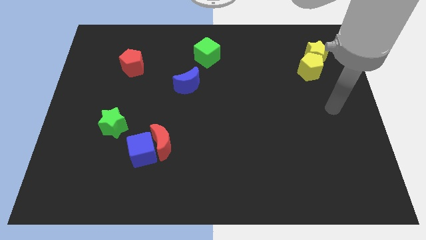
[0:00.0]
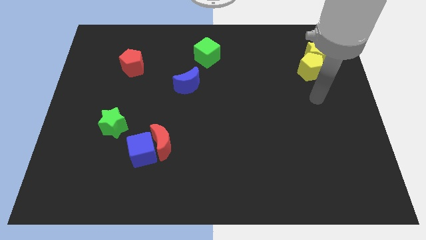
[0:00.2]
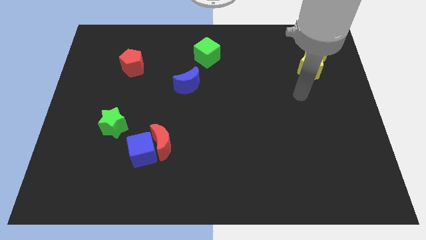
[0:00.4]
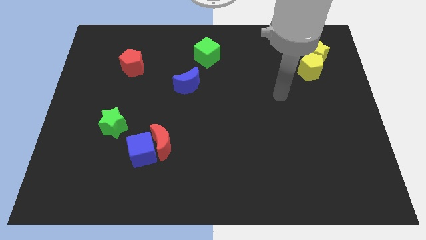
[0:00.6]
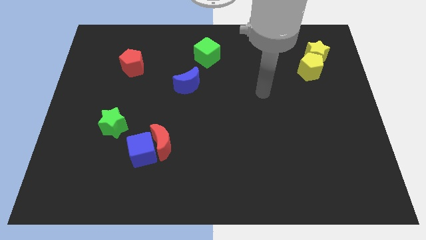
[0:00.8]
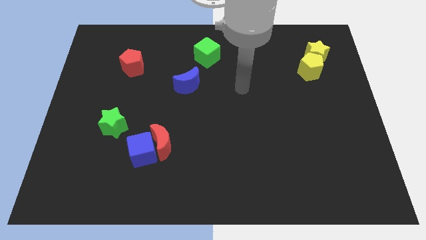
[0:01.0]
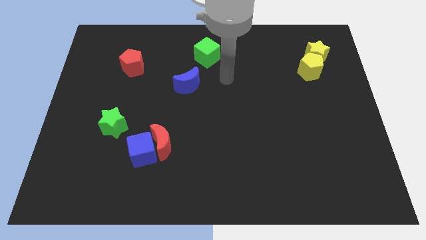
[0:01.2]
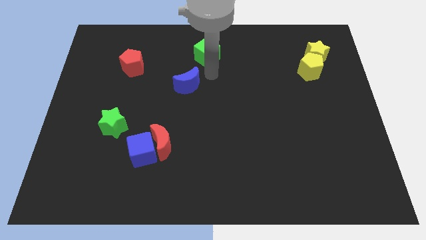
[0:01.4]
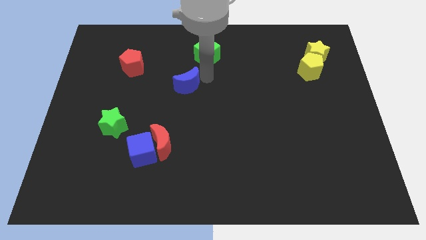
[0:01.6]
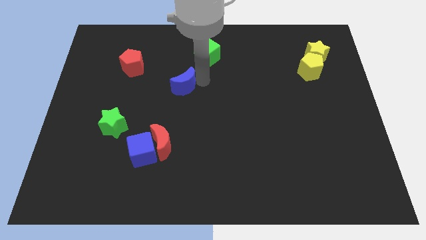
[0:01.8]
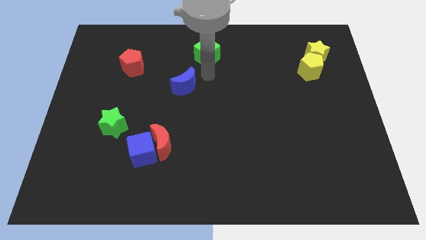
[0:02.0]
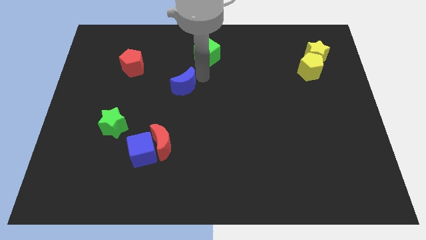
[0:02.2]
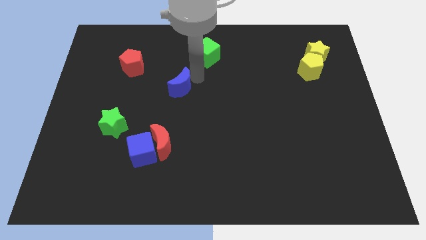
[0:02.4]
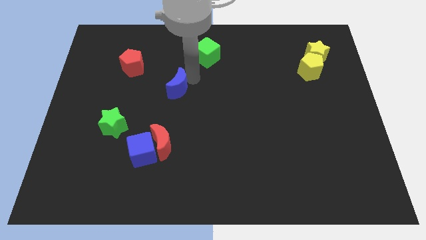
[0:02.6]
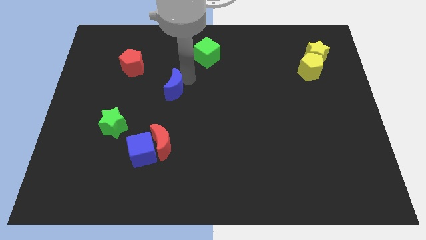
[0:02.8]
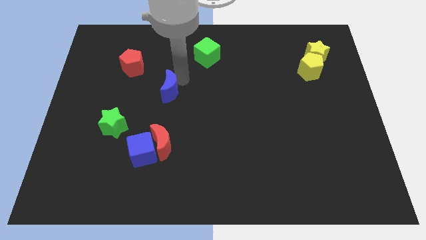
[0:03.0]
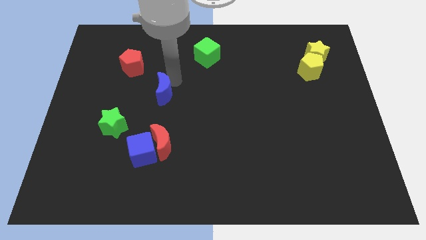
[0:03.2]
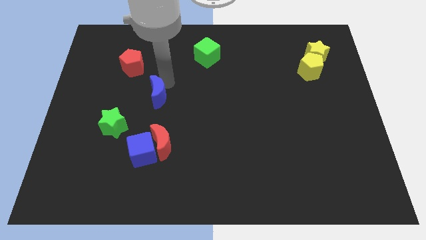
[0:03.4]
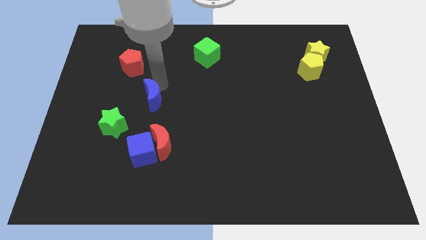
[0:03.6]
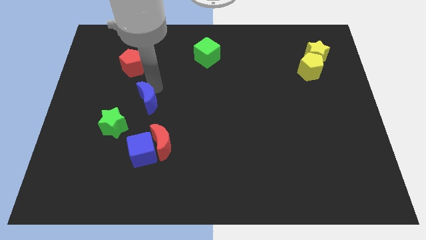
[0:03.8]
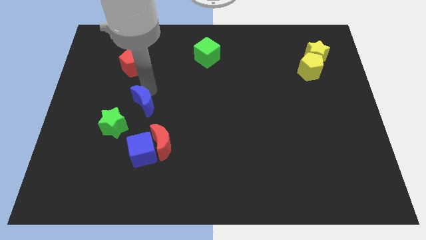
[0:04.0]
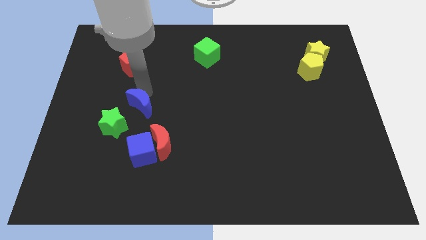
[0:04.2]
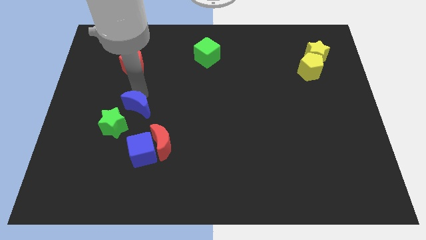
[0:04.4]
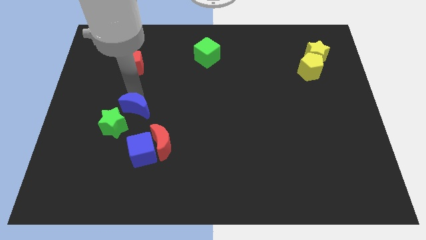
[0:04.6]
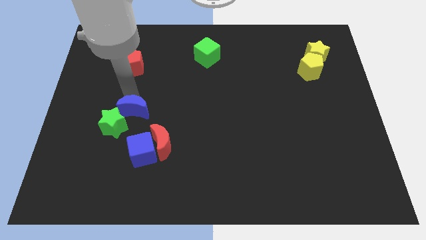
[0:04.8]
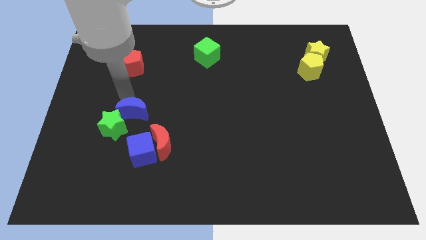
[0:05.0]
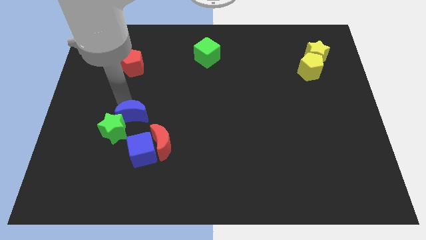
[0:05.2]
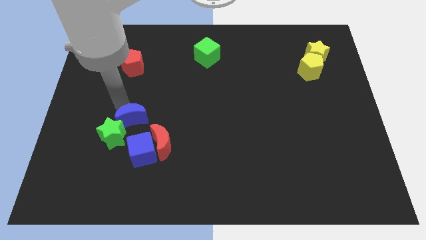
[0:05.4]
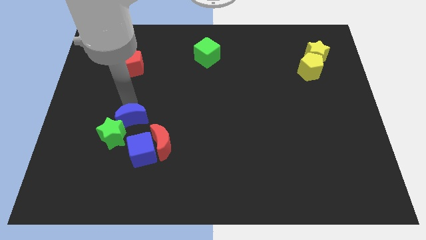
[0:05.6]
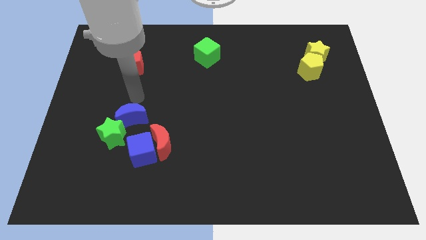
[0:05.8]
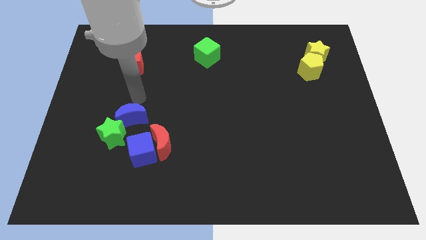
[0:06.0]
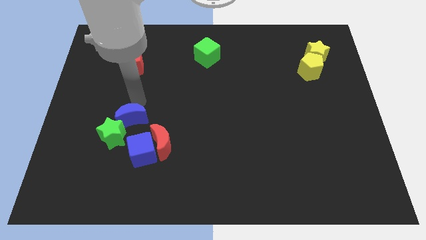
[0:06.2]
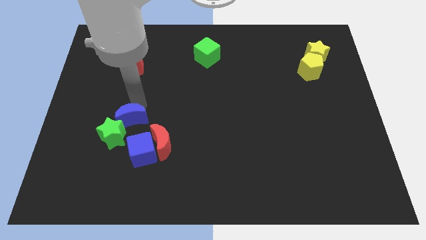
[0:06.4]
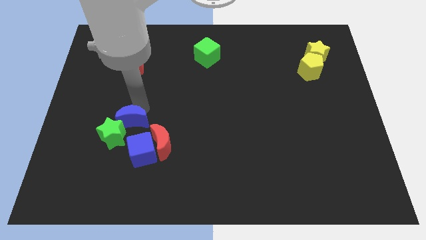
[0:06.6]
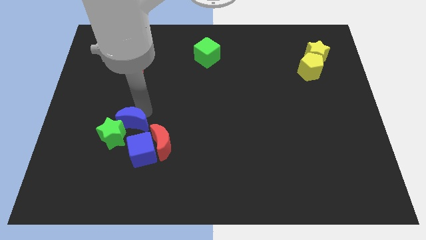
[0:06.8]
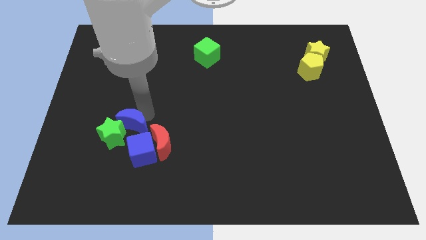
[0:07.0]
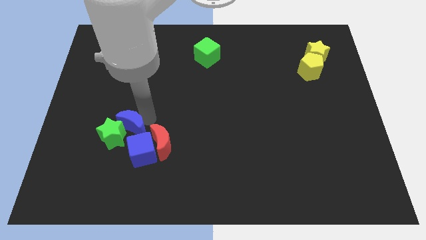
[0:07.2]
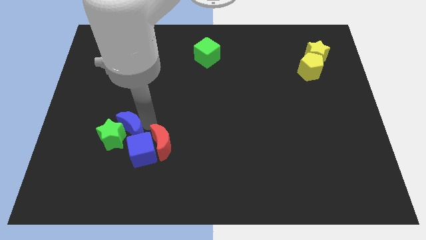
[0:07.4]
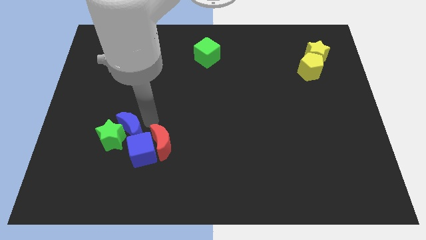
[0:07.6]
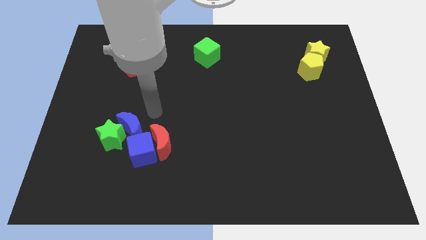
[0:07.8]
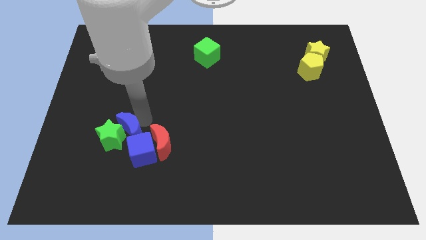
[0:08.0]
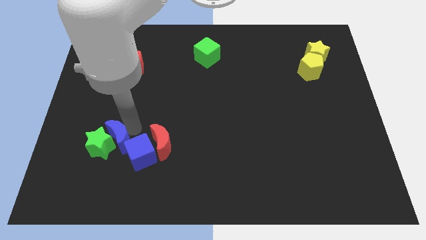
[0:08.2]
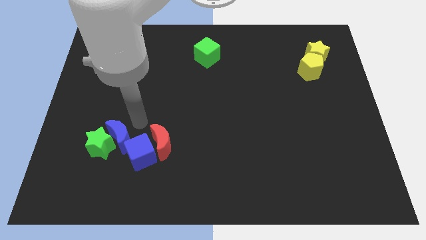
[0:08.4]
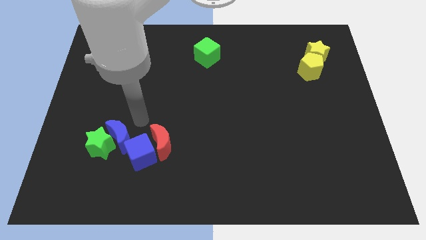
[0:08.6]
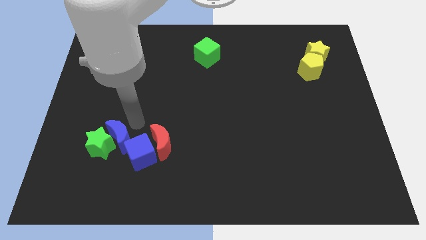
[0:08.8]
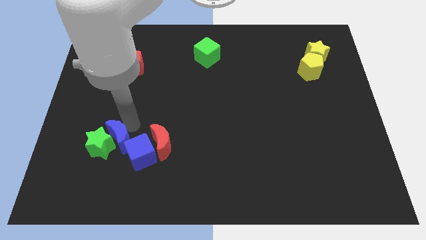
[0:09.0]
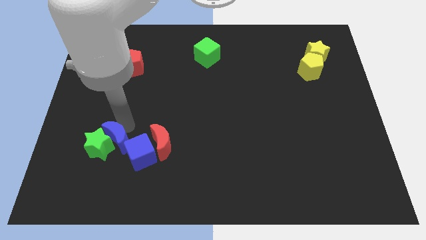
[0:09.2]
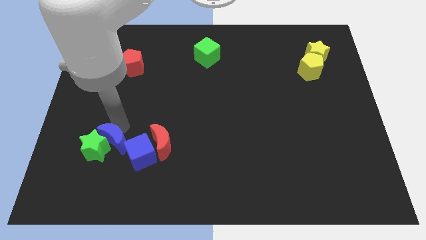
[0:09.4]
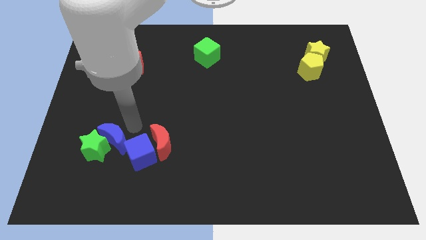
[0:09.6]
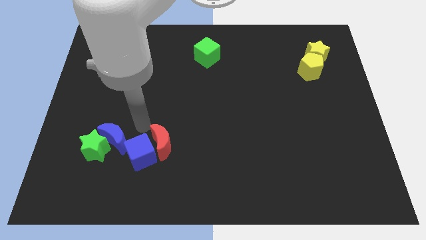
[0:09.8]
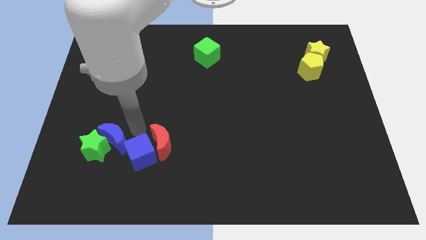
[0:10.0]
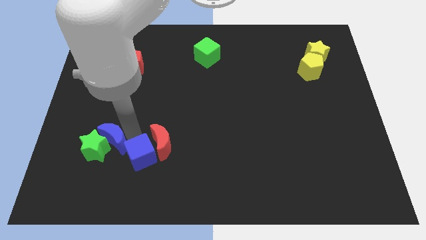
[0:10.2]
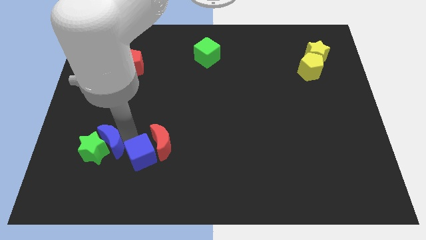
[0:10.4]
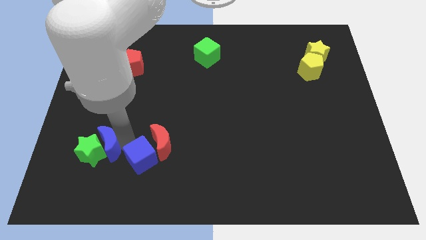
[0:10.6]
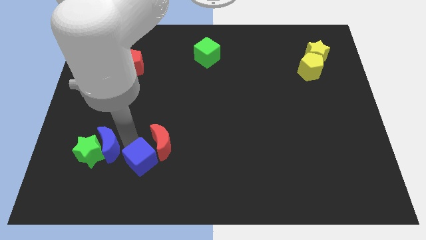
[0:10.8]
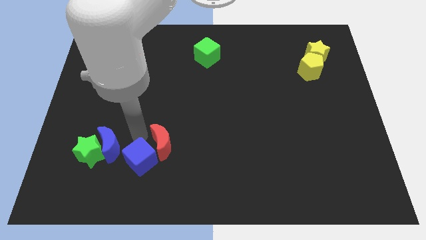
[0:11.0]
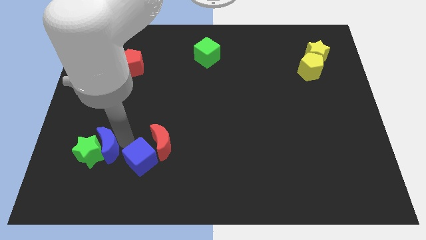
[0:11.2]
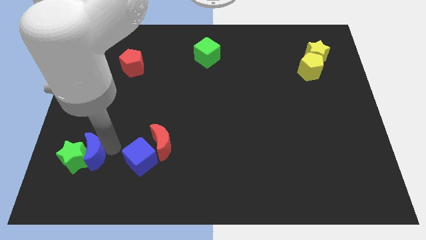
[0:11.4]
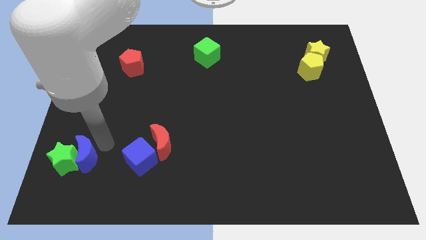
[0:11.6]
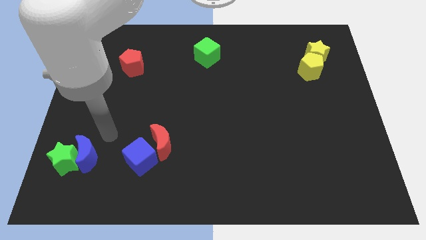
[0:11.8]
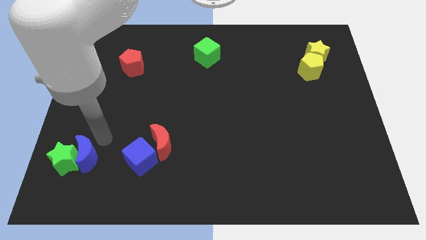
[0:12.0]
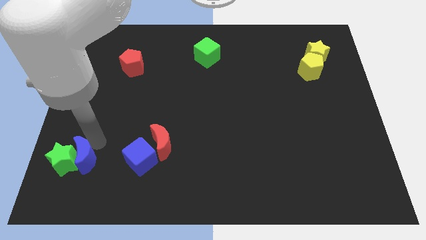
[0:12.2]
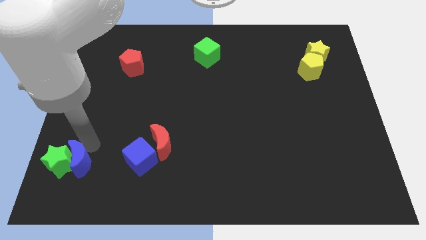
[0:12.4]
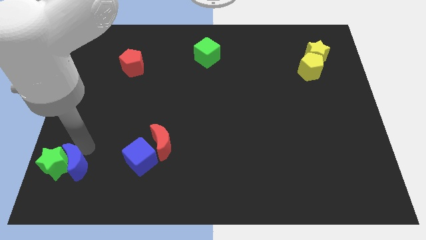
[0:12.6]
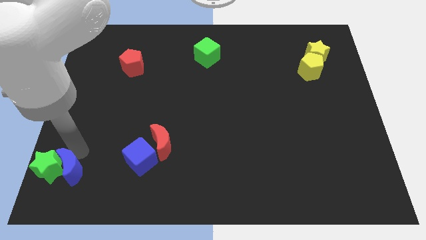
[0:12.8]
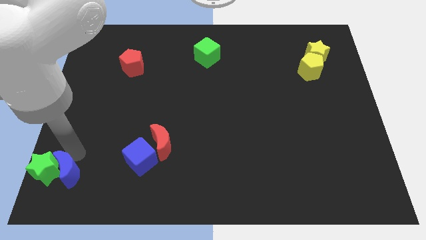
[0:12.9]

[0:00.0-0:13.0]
slide the blue moon to the bottom left
